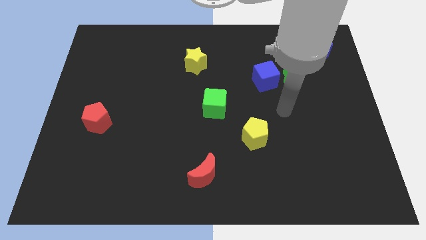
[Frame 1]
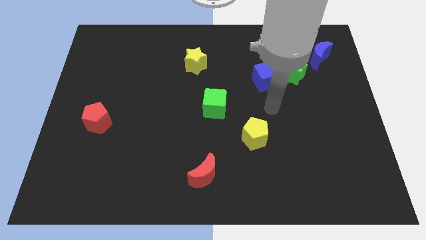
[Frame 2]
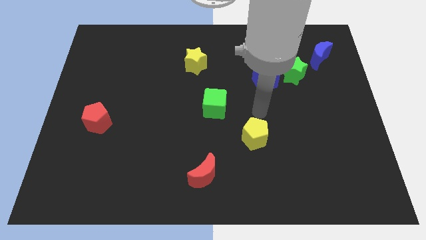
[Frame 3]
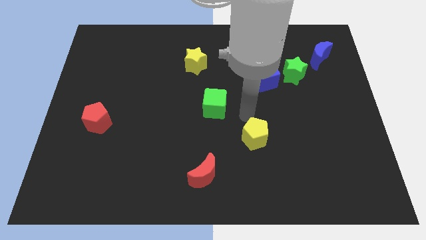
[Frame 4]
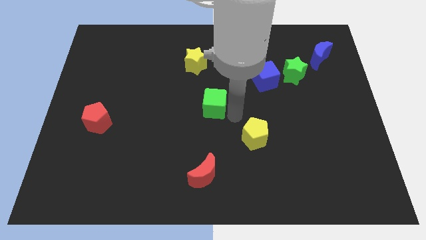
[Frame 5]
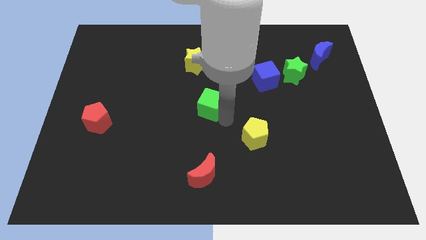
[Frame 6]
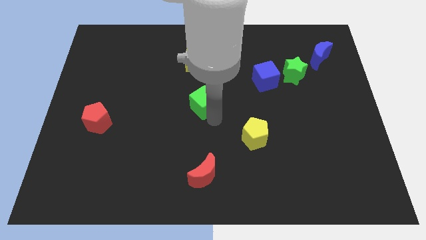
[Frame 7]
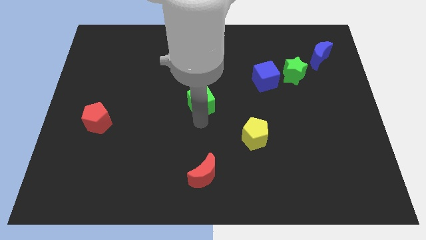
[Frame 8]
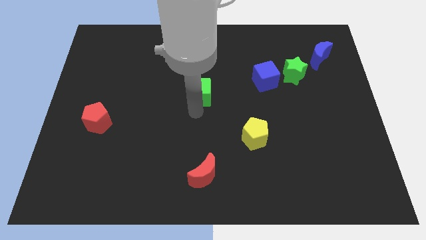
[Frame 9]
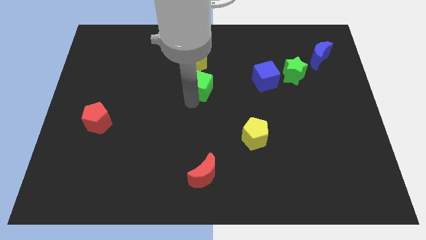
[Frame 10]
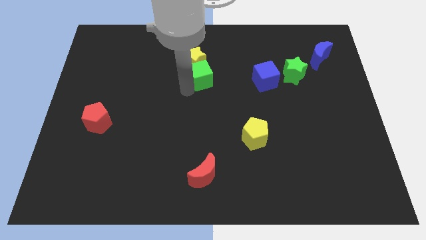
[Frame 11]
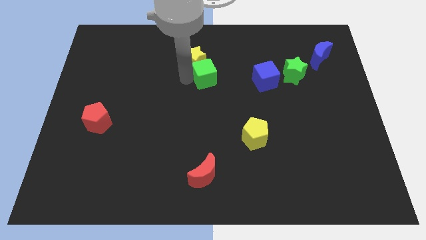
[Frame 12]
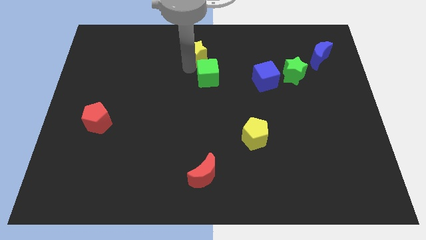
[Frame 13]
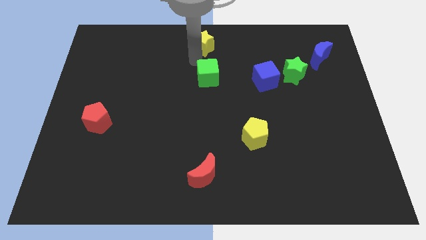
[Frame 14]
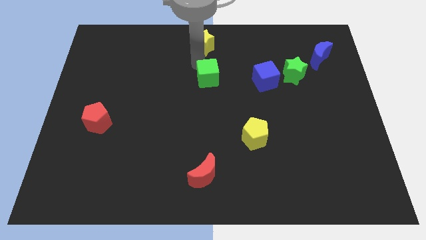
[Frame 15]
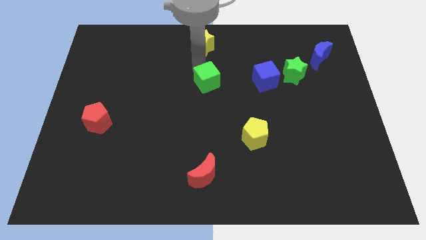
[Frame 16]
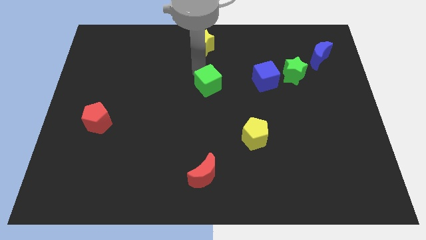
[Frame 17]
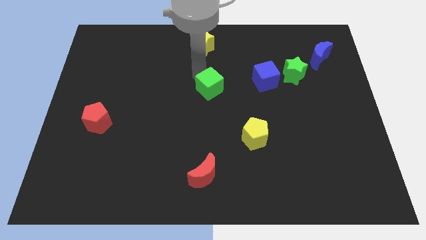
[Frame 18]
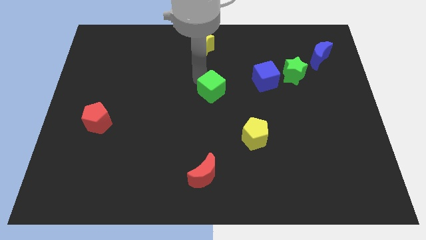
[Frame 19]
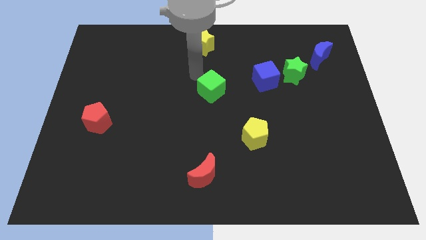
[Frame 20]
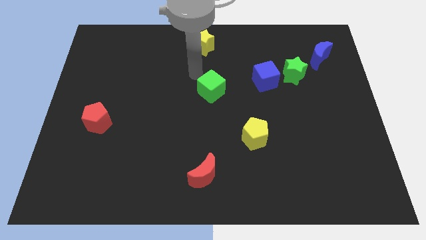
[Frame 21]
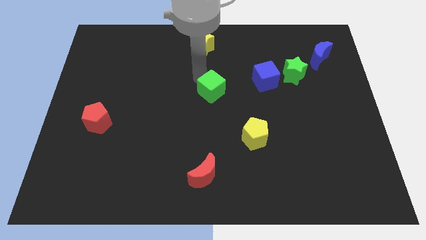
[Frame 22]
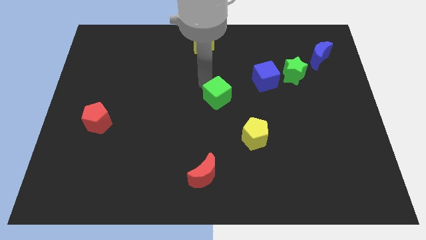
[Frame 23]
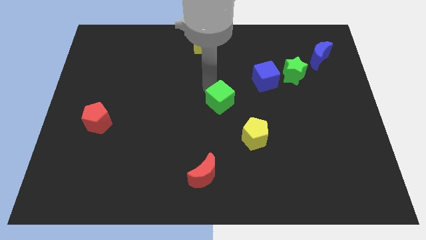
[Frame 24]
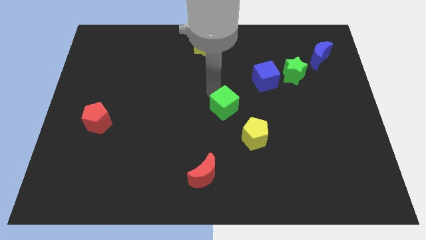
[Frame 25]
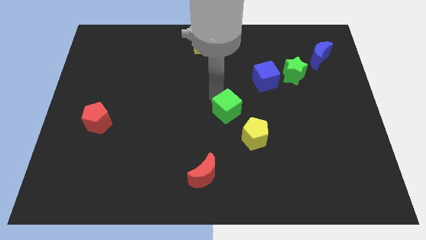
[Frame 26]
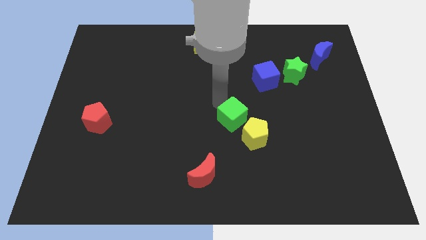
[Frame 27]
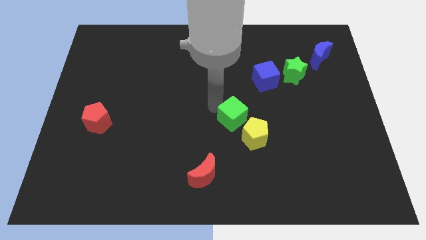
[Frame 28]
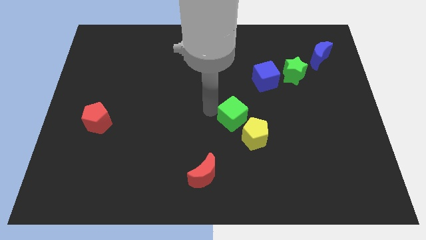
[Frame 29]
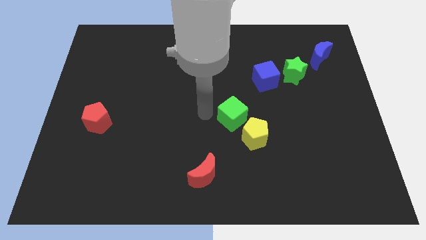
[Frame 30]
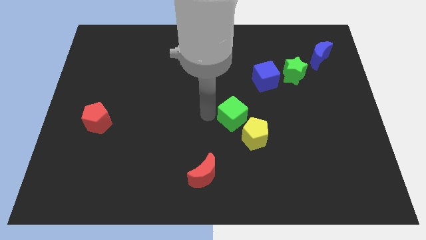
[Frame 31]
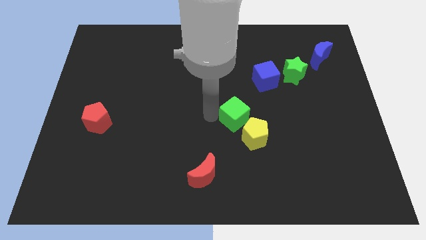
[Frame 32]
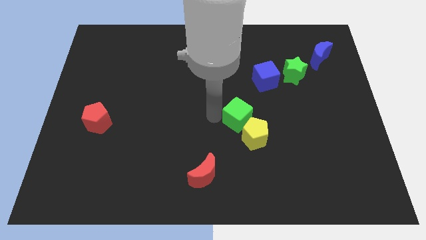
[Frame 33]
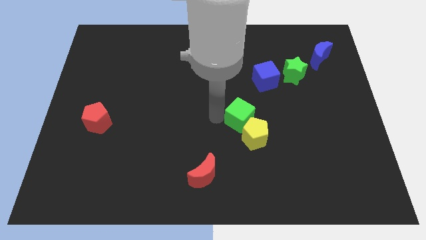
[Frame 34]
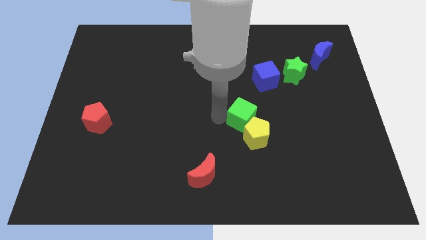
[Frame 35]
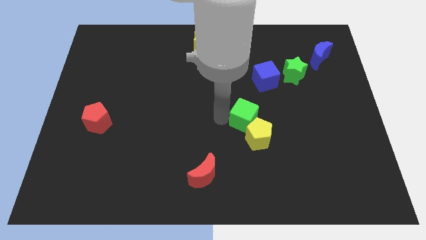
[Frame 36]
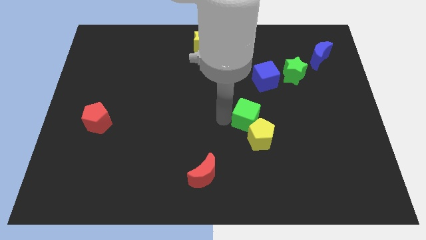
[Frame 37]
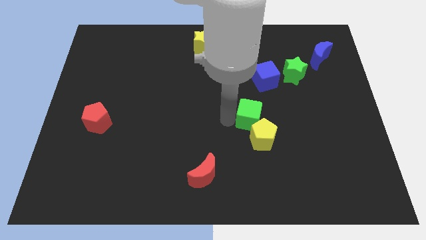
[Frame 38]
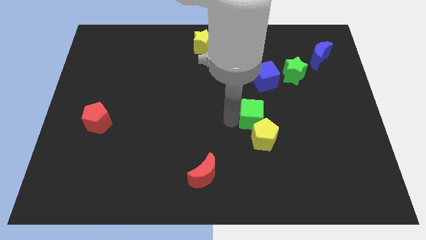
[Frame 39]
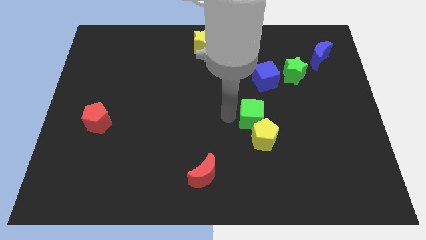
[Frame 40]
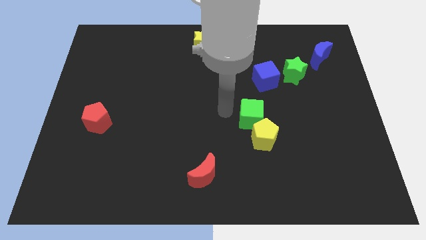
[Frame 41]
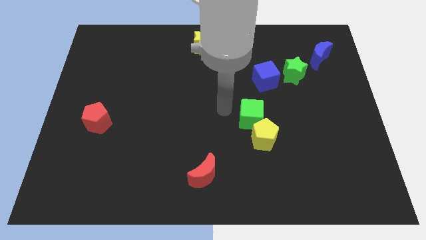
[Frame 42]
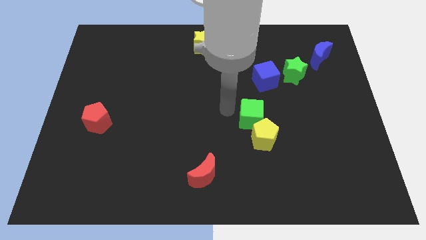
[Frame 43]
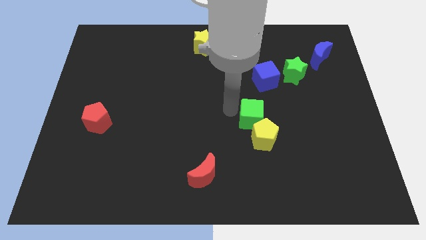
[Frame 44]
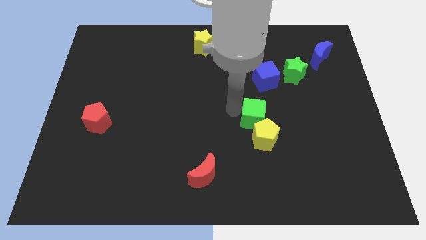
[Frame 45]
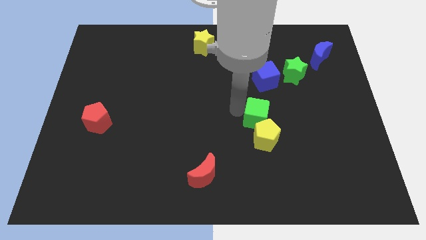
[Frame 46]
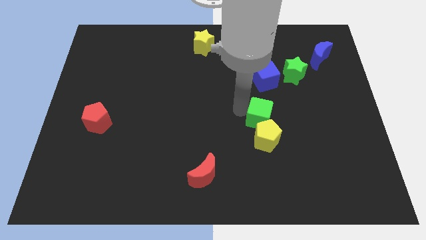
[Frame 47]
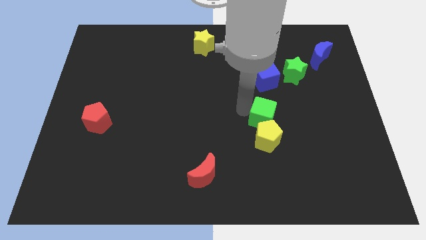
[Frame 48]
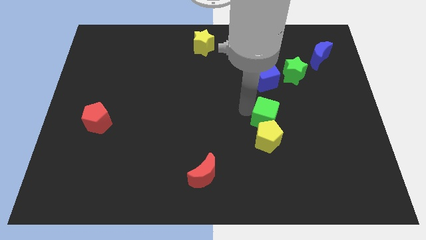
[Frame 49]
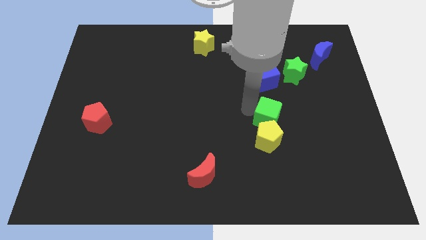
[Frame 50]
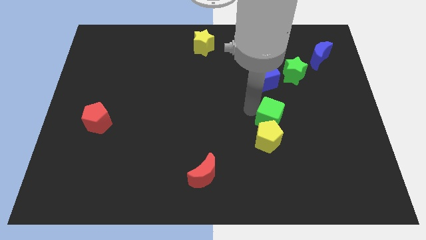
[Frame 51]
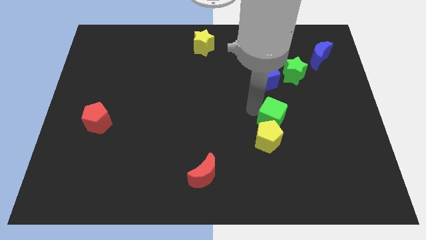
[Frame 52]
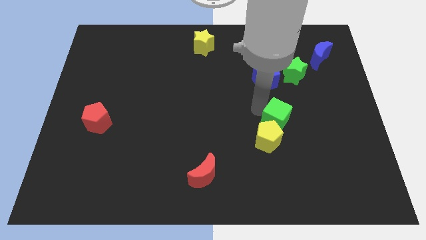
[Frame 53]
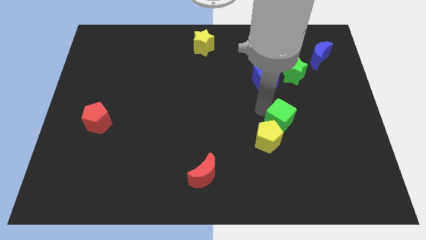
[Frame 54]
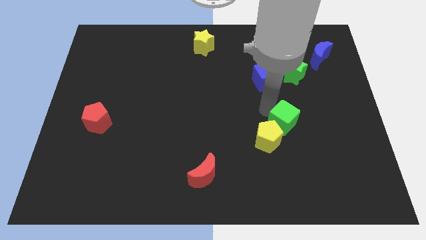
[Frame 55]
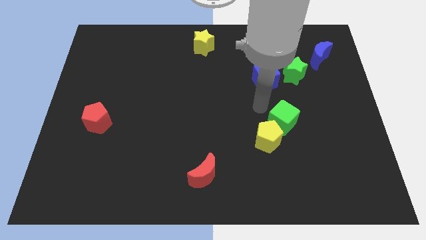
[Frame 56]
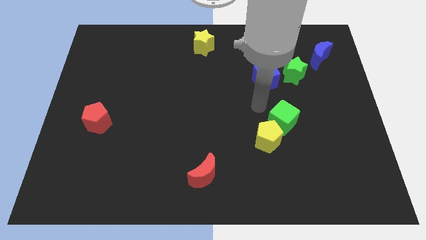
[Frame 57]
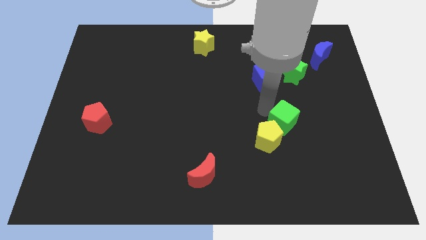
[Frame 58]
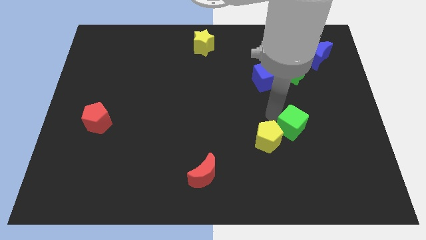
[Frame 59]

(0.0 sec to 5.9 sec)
put the green cube to the right of the yellow pentagon
